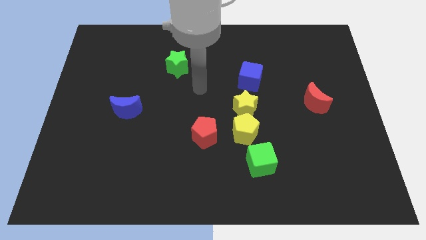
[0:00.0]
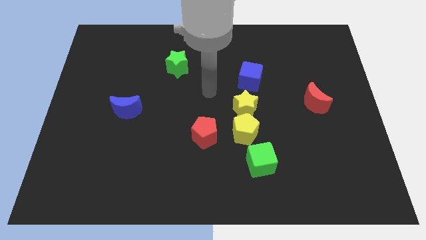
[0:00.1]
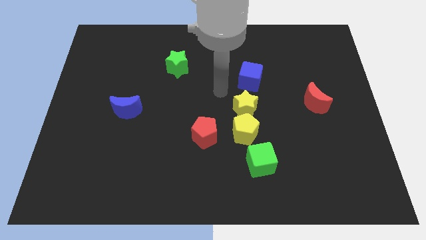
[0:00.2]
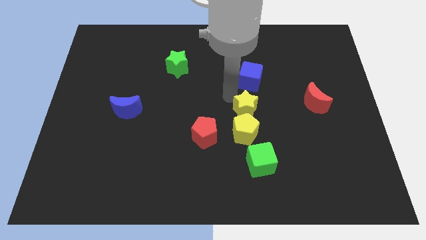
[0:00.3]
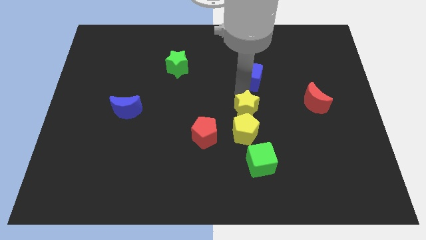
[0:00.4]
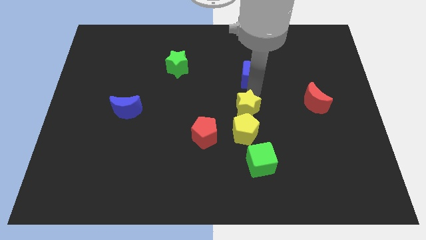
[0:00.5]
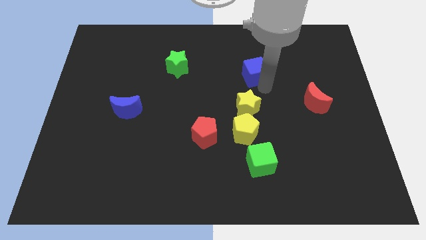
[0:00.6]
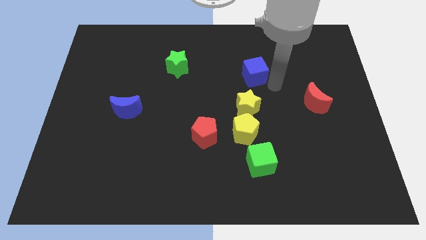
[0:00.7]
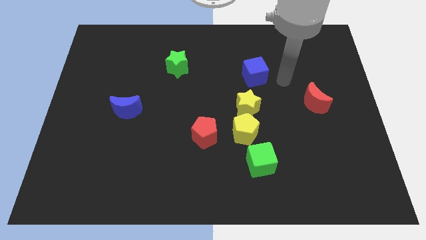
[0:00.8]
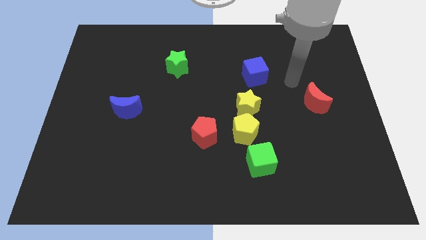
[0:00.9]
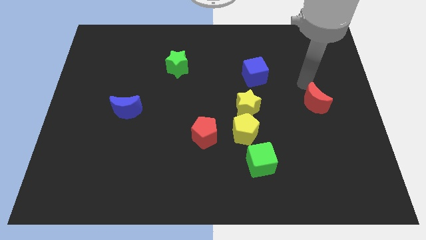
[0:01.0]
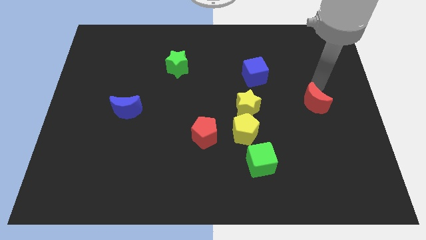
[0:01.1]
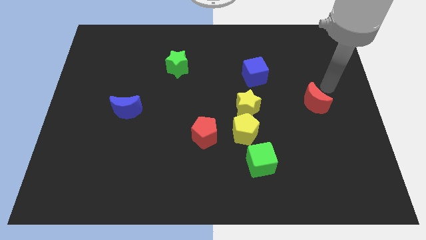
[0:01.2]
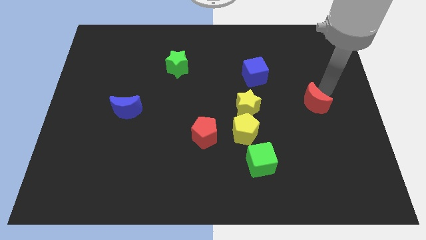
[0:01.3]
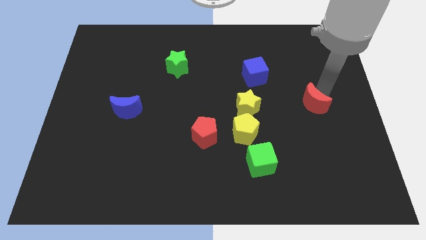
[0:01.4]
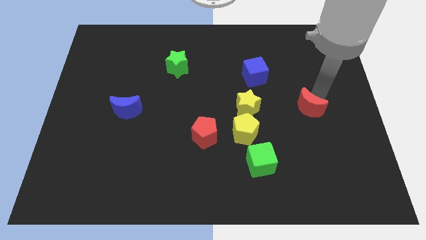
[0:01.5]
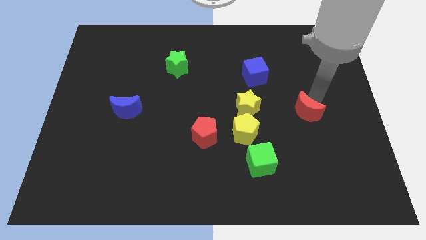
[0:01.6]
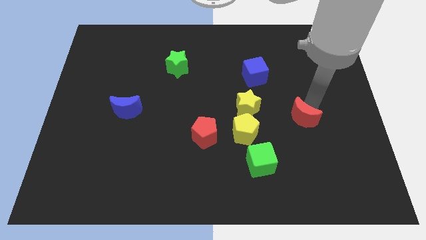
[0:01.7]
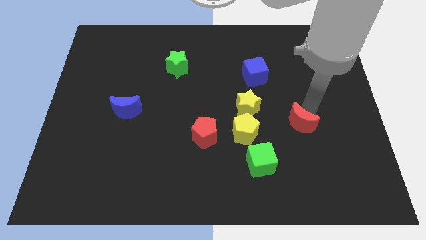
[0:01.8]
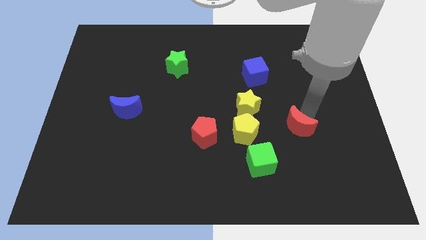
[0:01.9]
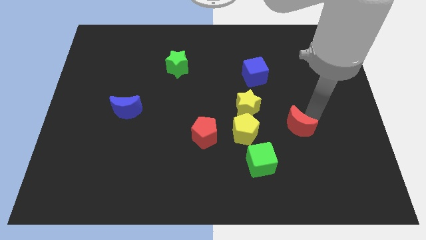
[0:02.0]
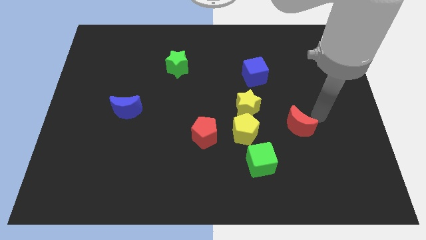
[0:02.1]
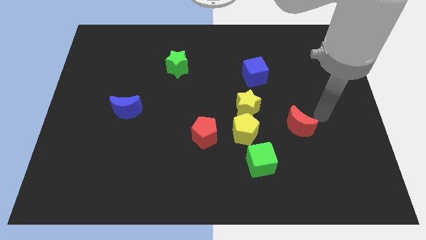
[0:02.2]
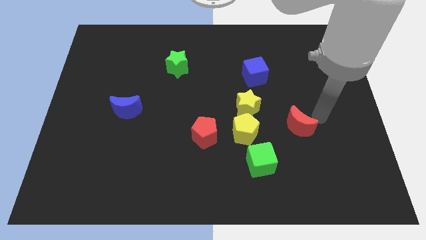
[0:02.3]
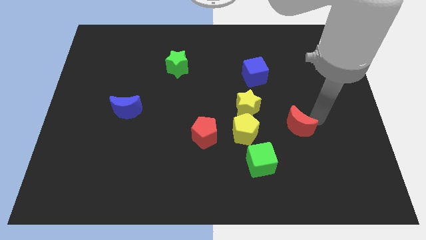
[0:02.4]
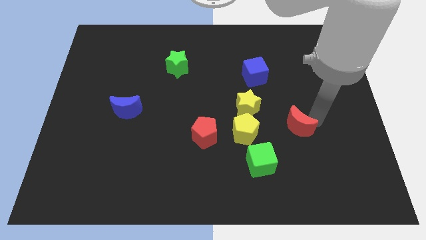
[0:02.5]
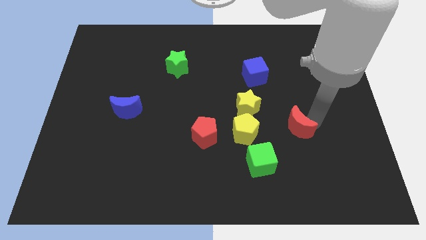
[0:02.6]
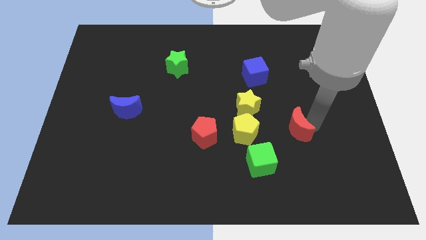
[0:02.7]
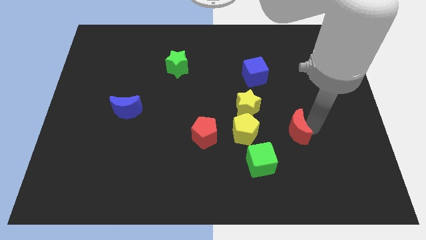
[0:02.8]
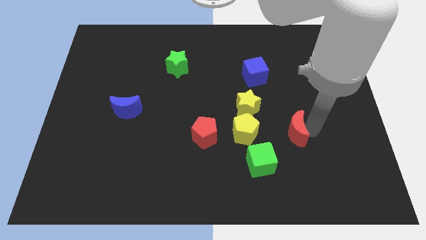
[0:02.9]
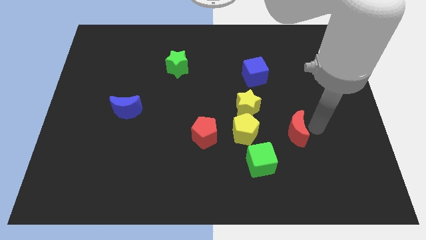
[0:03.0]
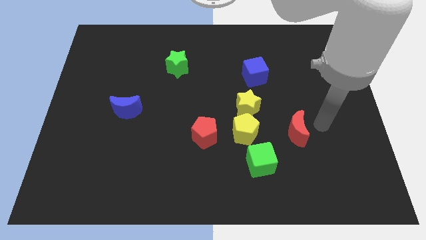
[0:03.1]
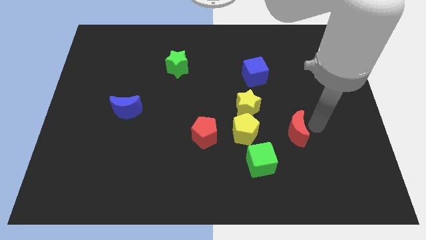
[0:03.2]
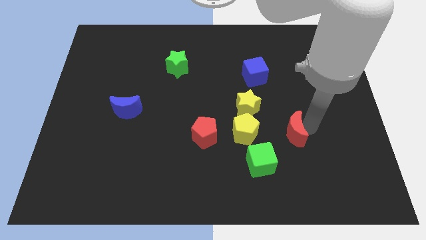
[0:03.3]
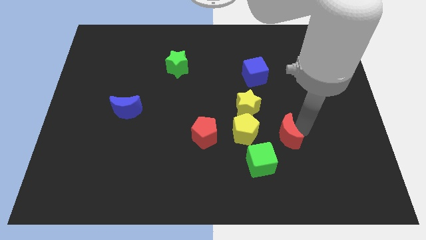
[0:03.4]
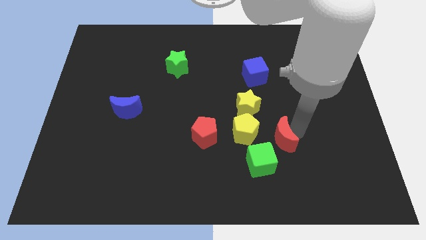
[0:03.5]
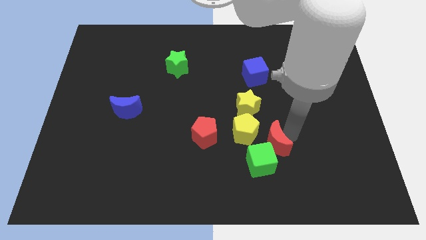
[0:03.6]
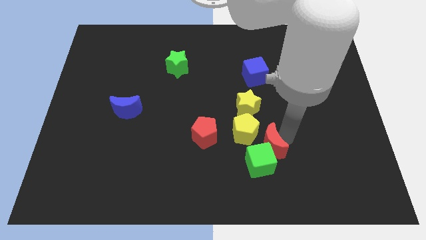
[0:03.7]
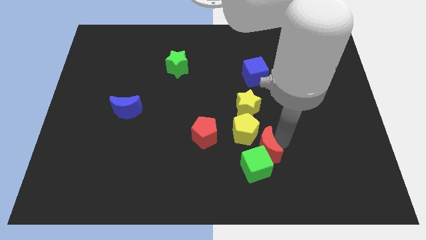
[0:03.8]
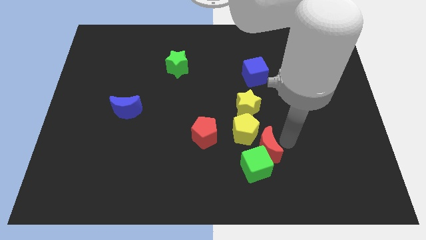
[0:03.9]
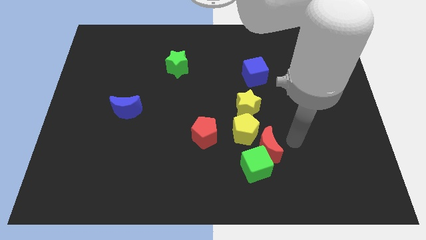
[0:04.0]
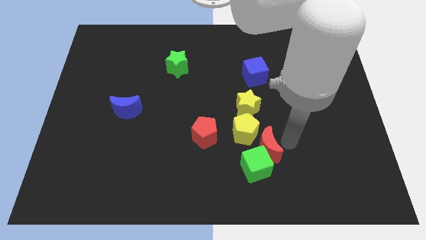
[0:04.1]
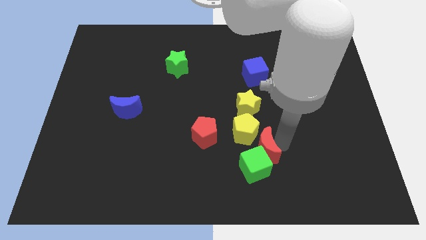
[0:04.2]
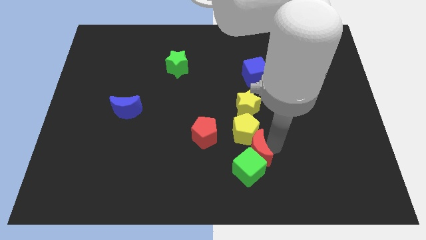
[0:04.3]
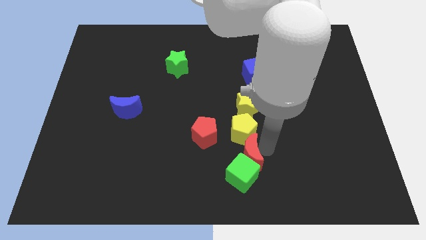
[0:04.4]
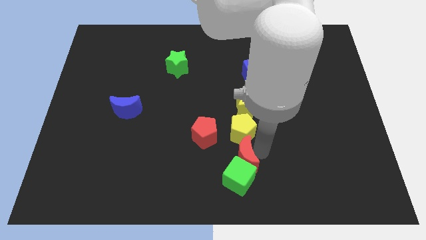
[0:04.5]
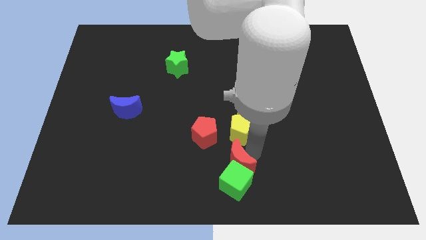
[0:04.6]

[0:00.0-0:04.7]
move the red moon to the bottom side

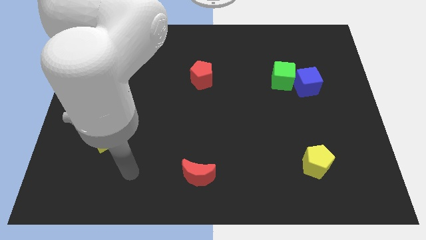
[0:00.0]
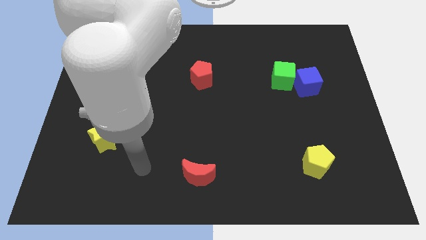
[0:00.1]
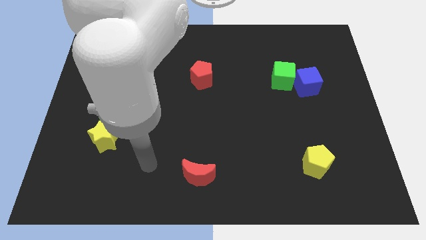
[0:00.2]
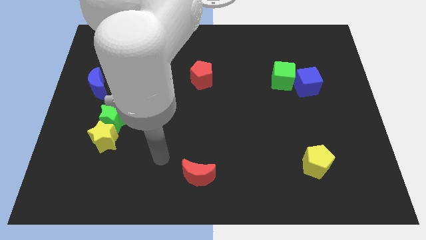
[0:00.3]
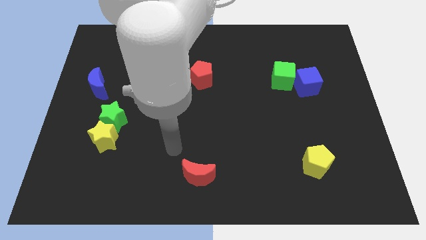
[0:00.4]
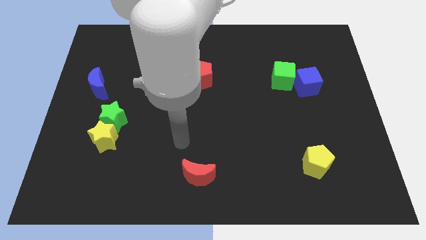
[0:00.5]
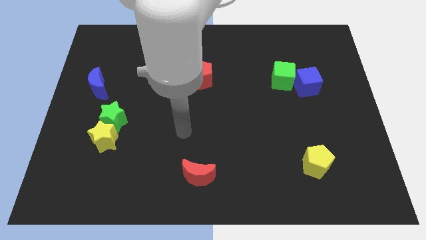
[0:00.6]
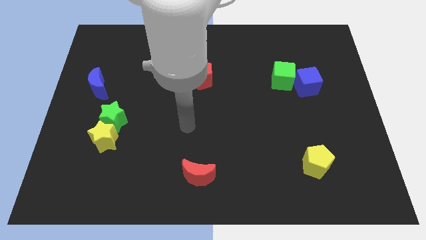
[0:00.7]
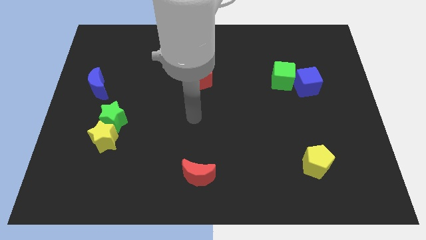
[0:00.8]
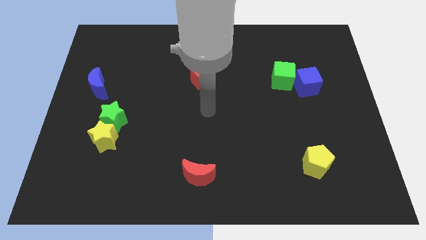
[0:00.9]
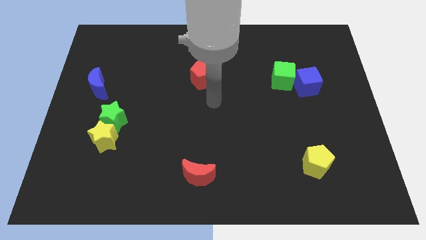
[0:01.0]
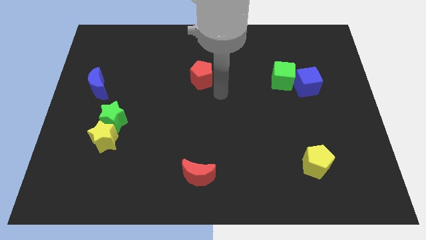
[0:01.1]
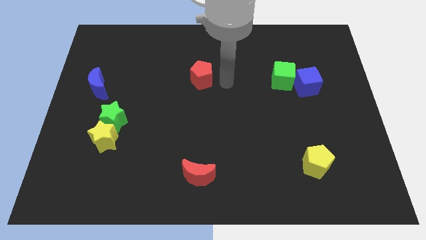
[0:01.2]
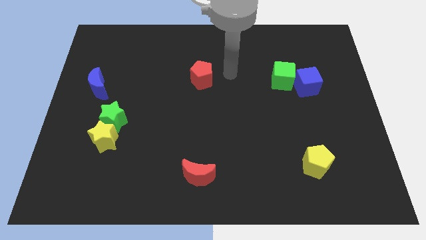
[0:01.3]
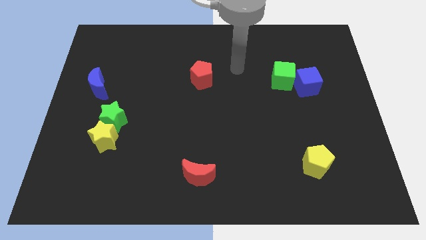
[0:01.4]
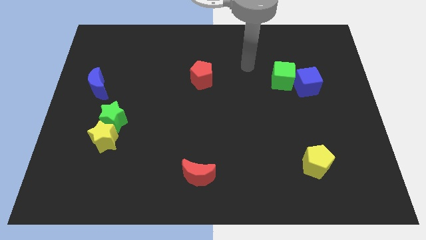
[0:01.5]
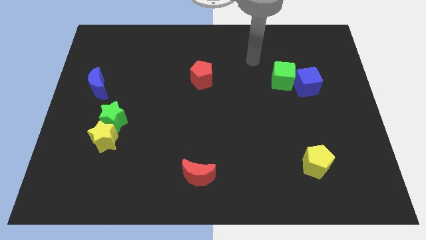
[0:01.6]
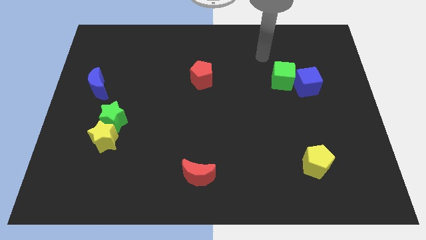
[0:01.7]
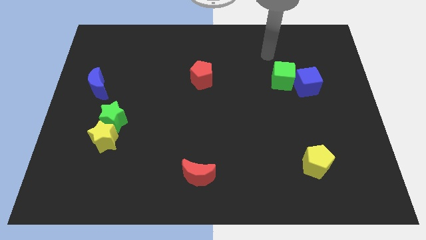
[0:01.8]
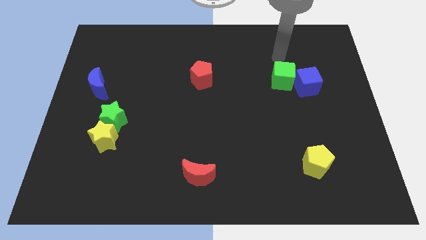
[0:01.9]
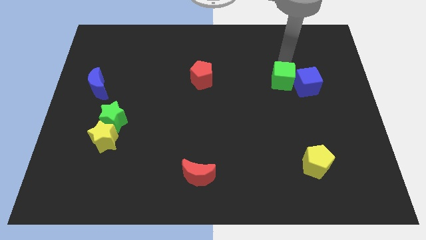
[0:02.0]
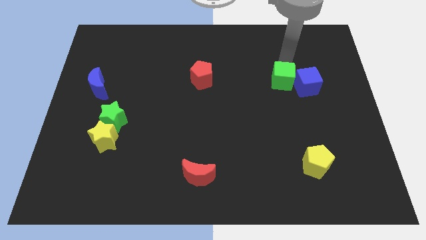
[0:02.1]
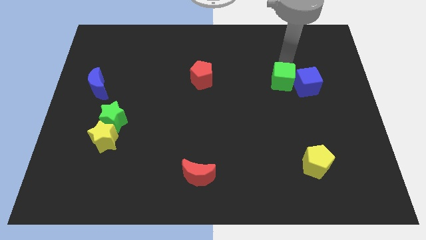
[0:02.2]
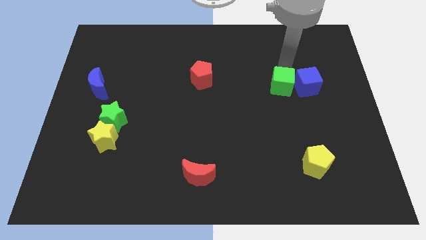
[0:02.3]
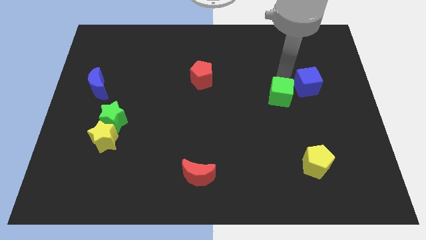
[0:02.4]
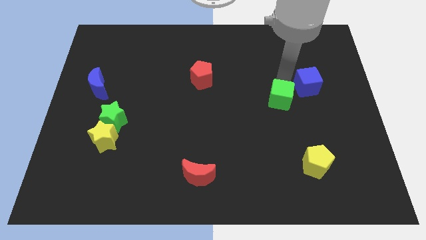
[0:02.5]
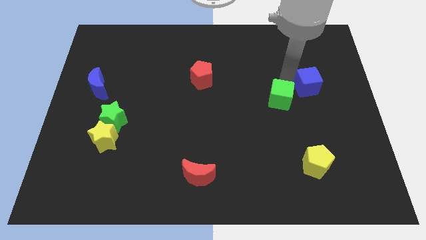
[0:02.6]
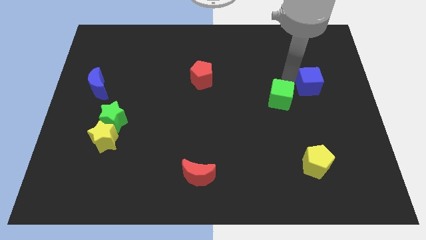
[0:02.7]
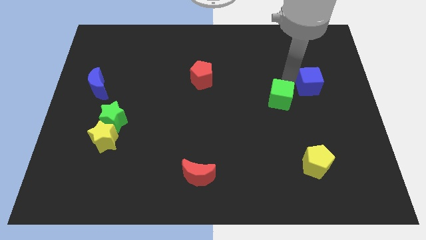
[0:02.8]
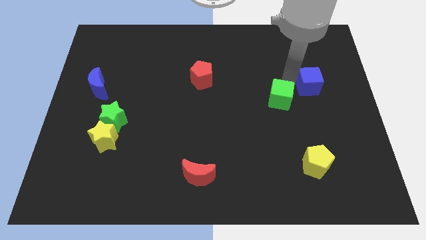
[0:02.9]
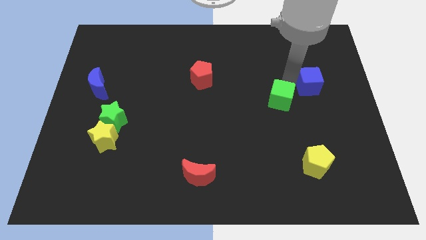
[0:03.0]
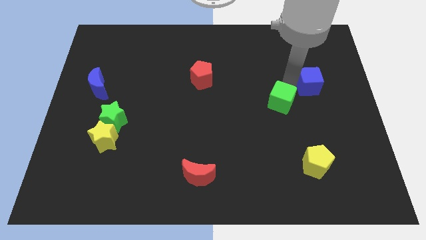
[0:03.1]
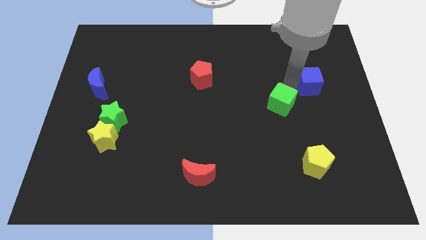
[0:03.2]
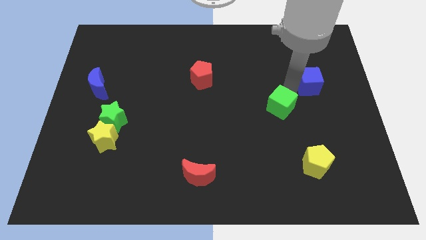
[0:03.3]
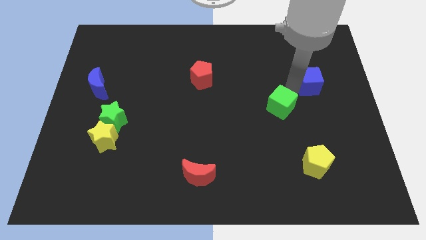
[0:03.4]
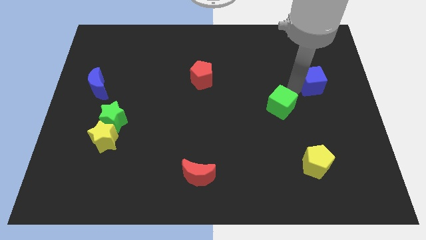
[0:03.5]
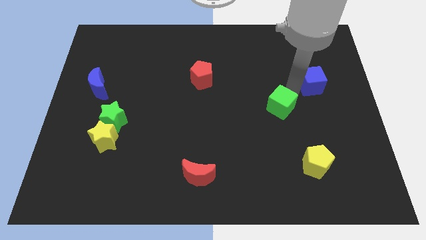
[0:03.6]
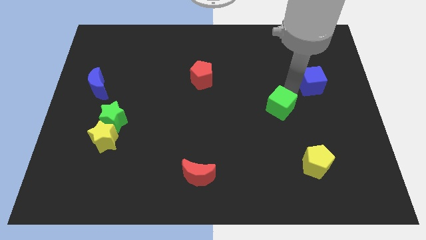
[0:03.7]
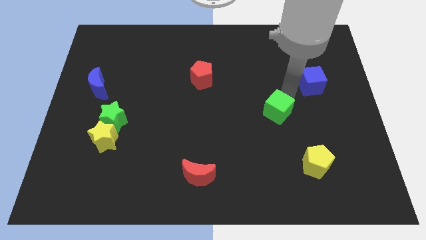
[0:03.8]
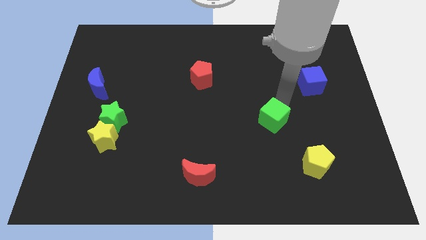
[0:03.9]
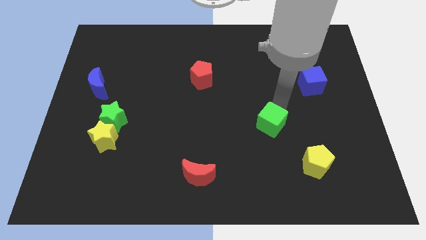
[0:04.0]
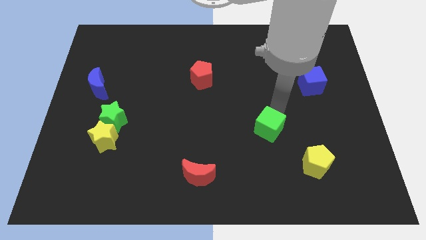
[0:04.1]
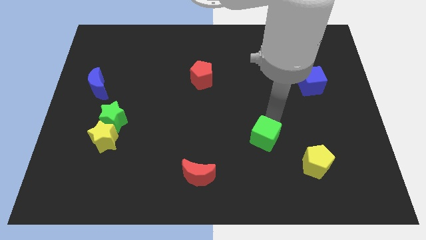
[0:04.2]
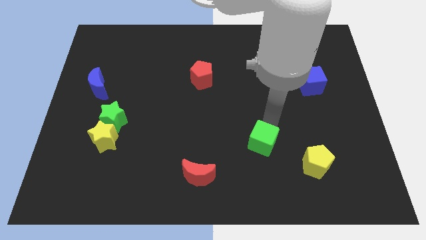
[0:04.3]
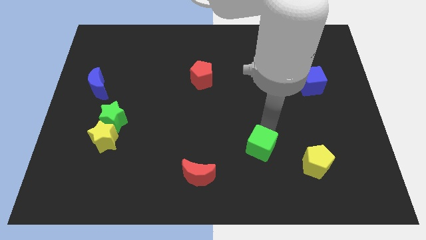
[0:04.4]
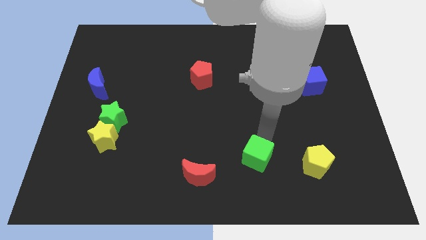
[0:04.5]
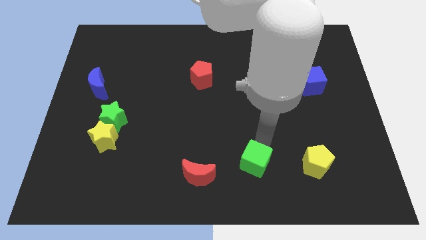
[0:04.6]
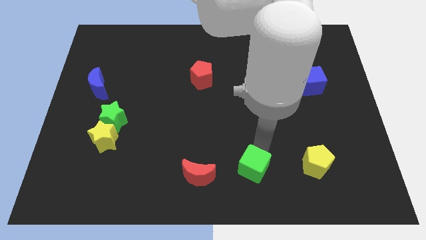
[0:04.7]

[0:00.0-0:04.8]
push the green cube to the bottom
